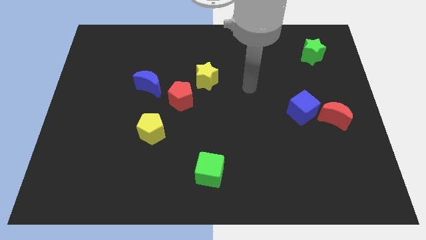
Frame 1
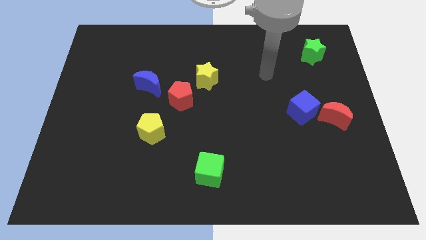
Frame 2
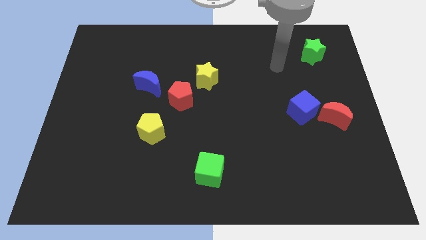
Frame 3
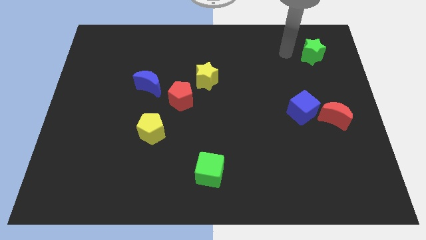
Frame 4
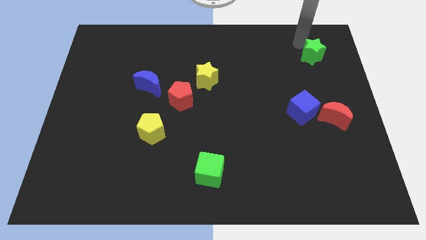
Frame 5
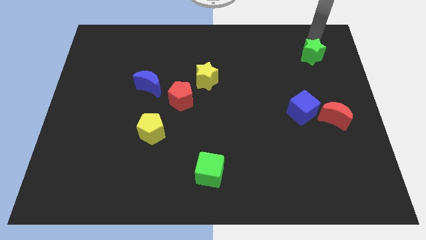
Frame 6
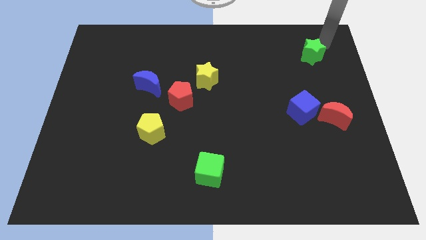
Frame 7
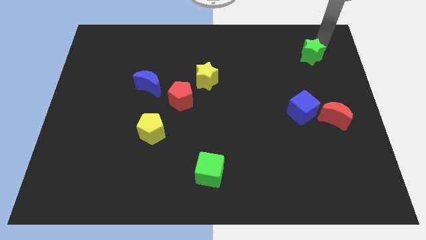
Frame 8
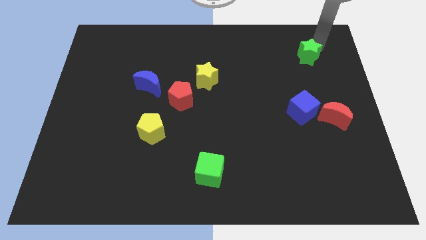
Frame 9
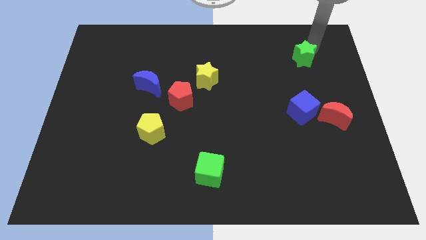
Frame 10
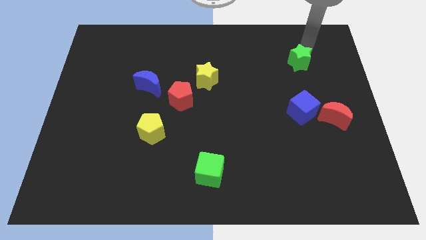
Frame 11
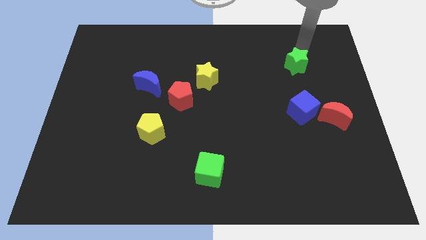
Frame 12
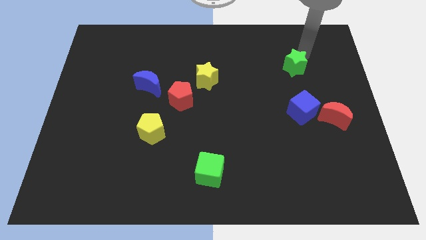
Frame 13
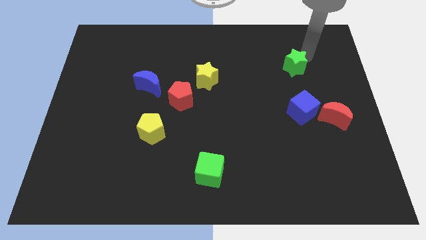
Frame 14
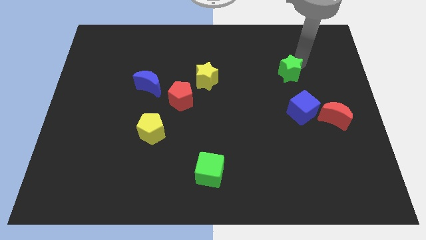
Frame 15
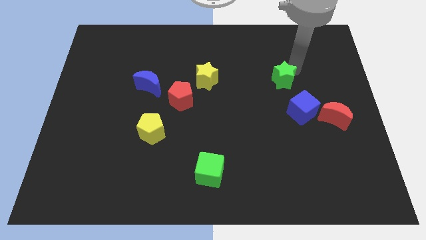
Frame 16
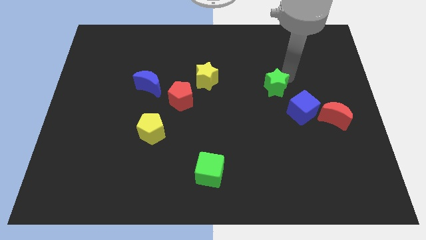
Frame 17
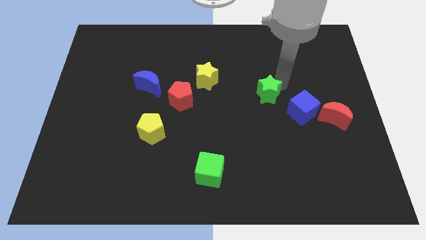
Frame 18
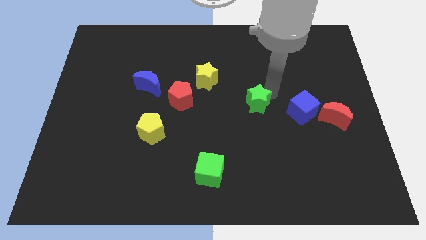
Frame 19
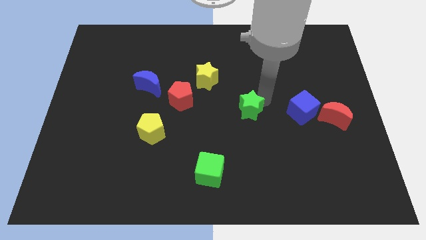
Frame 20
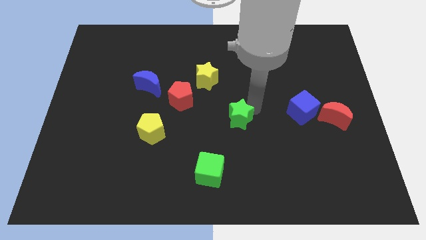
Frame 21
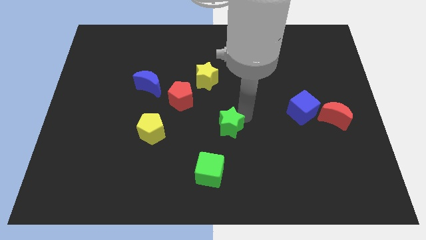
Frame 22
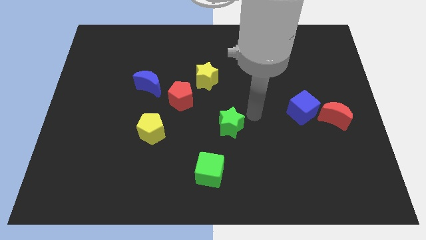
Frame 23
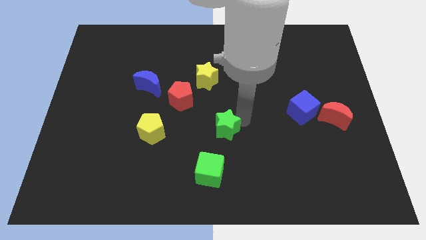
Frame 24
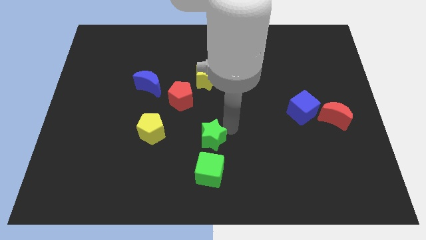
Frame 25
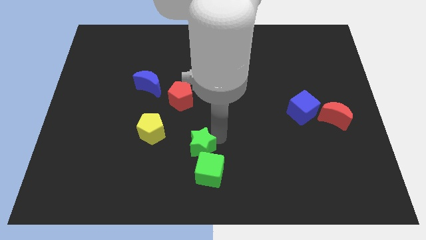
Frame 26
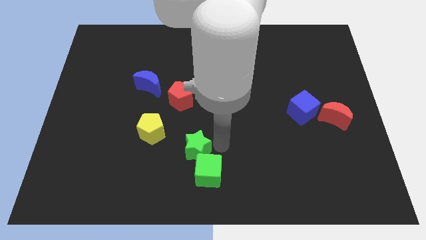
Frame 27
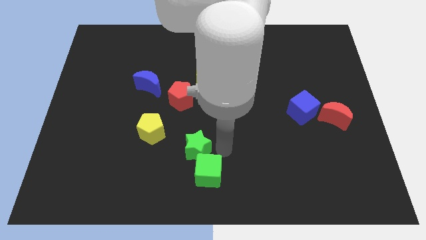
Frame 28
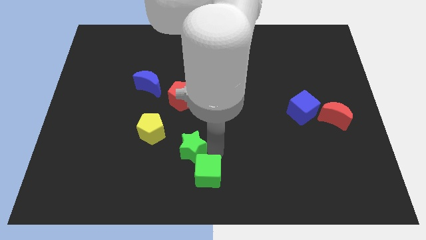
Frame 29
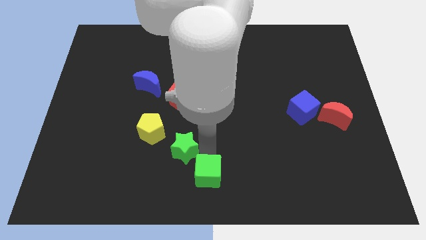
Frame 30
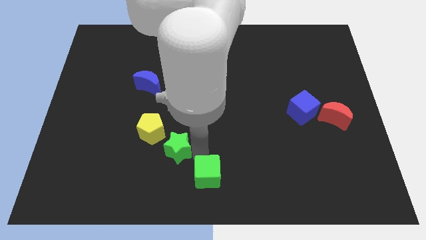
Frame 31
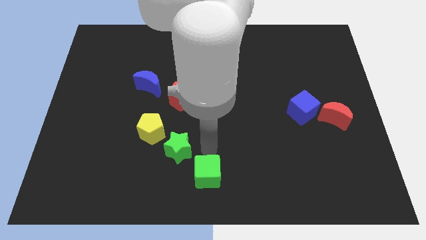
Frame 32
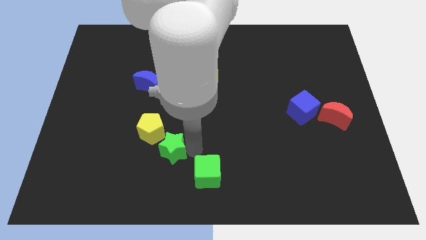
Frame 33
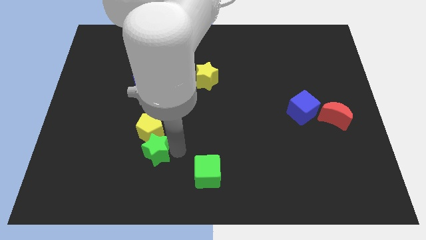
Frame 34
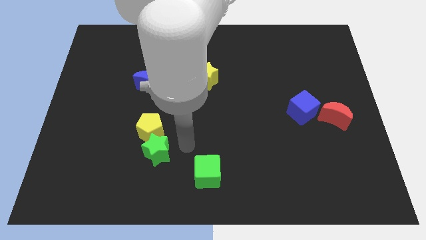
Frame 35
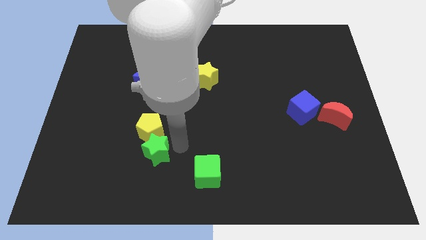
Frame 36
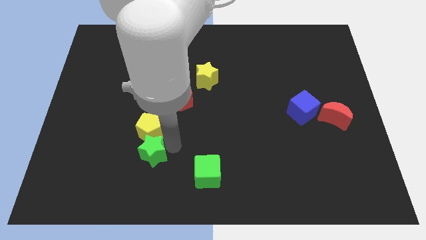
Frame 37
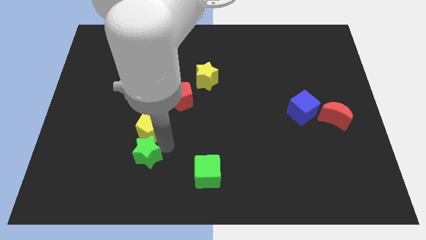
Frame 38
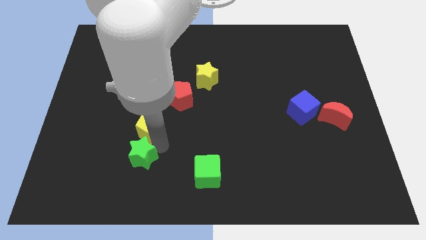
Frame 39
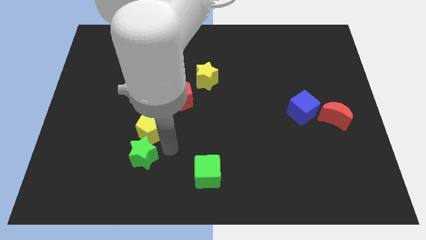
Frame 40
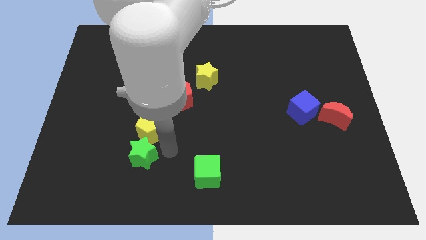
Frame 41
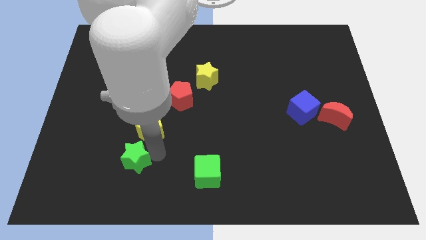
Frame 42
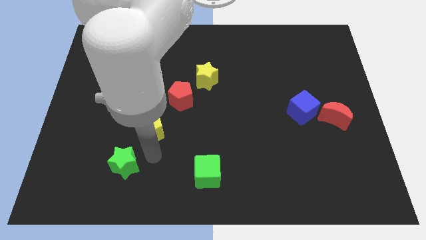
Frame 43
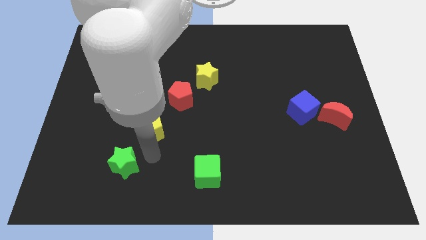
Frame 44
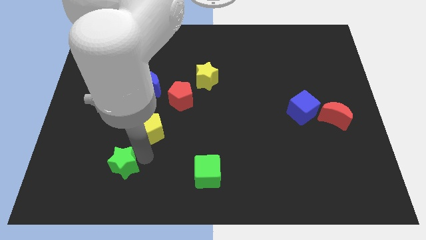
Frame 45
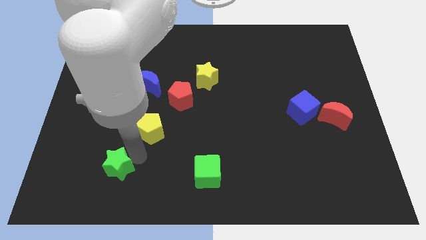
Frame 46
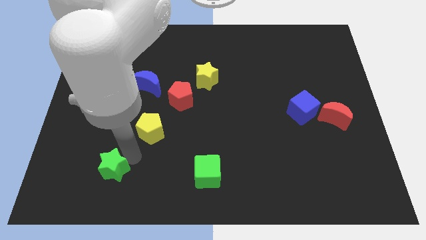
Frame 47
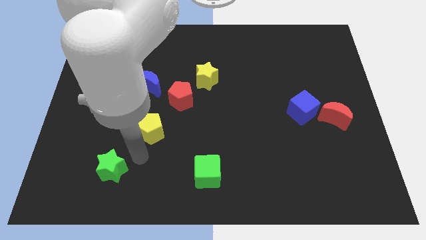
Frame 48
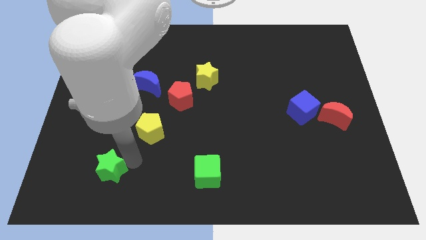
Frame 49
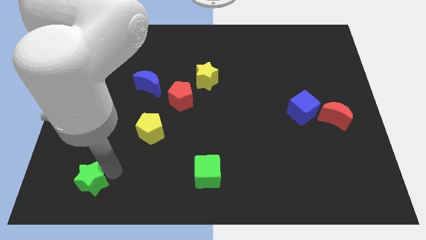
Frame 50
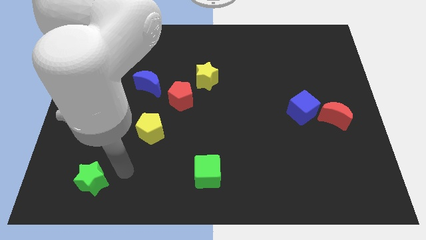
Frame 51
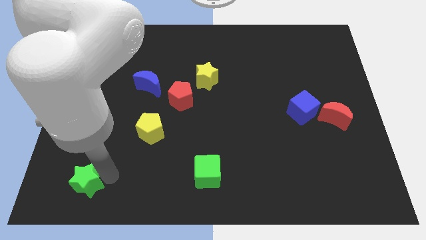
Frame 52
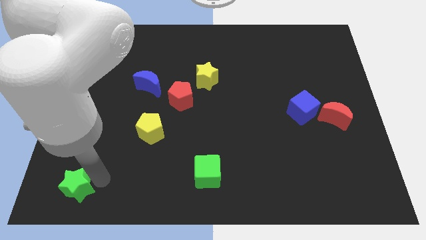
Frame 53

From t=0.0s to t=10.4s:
put the green star to the bottom left of the board

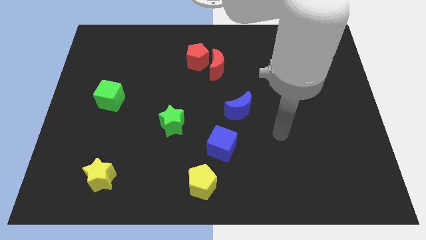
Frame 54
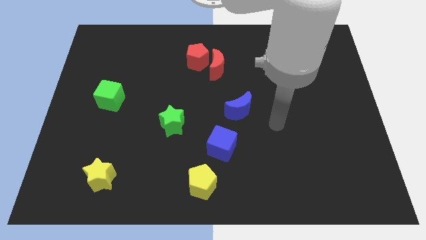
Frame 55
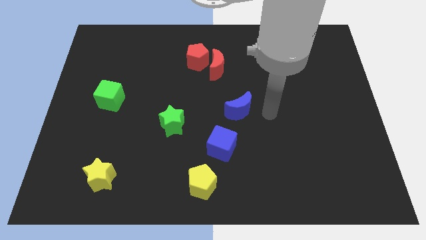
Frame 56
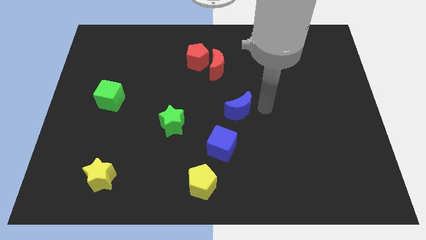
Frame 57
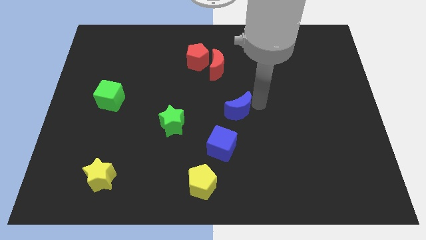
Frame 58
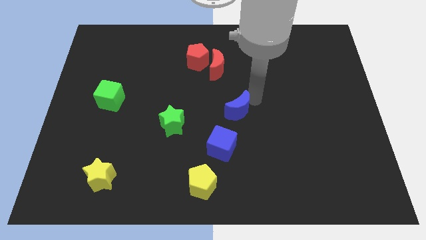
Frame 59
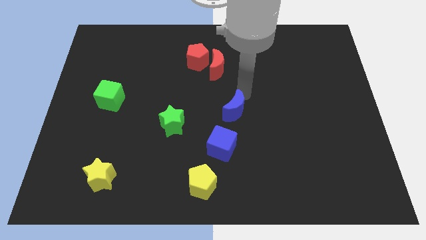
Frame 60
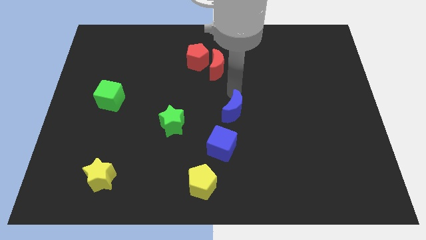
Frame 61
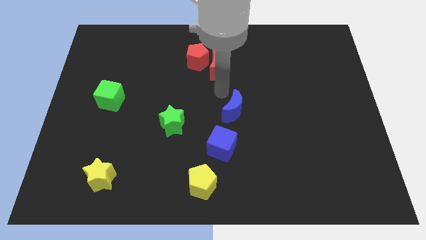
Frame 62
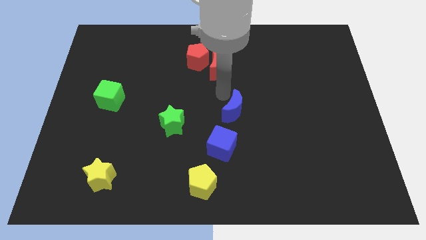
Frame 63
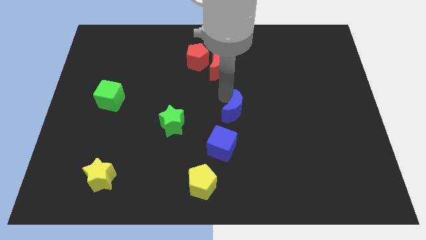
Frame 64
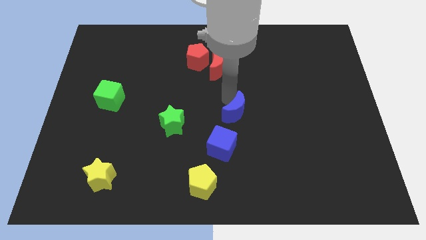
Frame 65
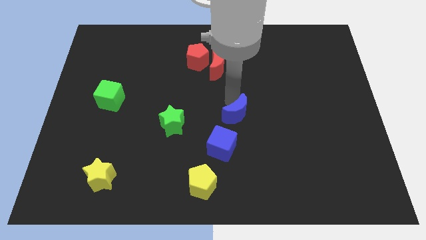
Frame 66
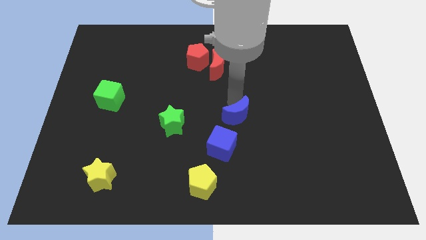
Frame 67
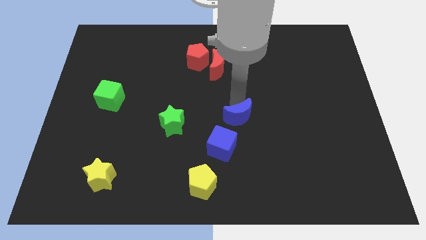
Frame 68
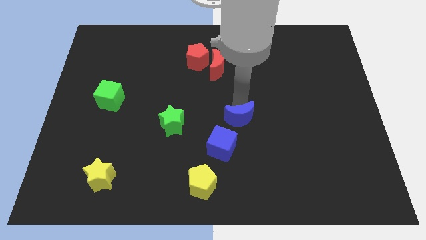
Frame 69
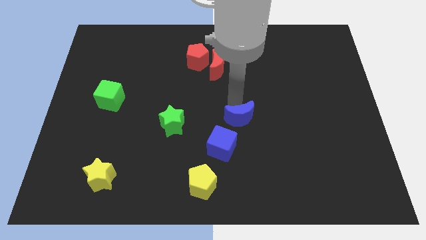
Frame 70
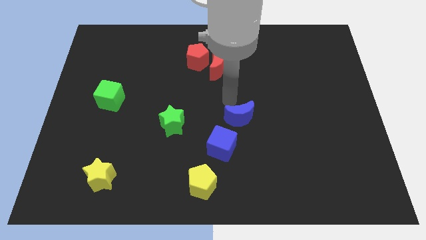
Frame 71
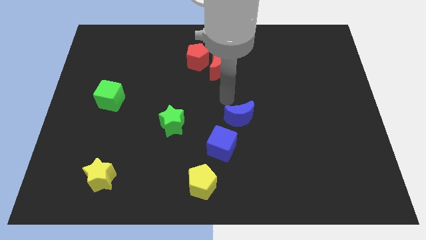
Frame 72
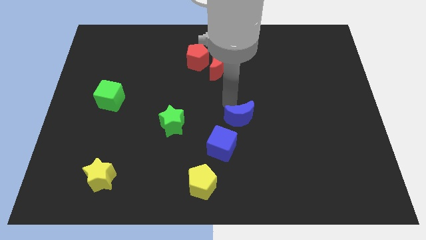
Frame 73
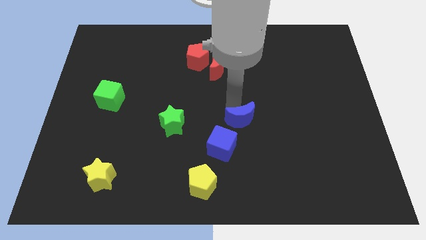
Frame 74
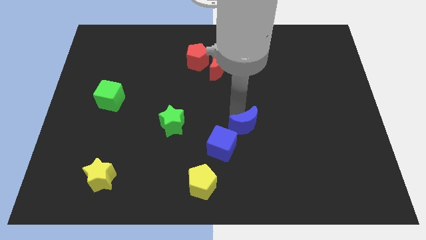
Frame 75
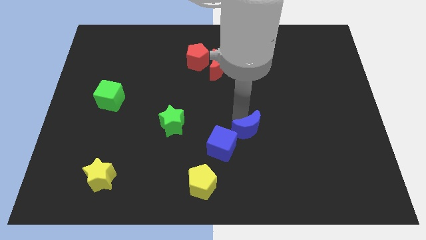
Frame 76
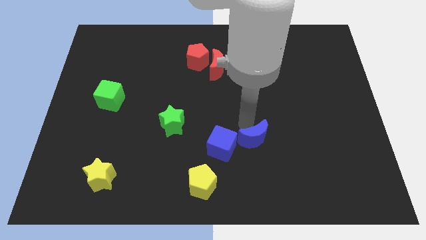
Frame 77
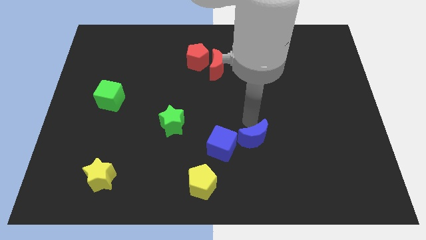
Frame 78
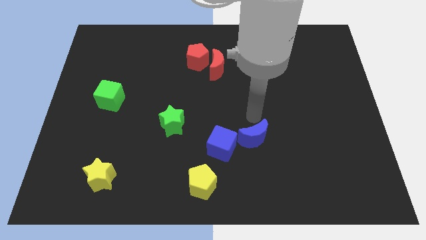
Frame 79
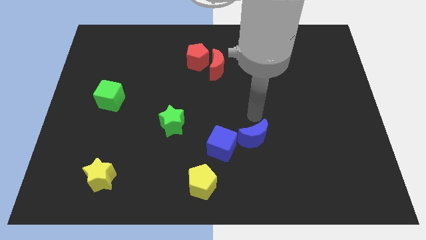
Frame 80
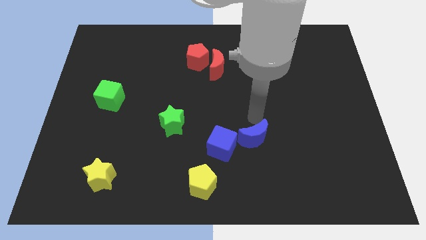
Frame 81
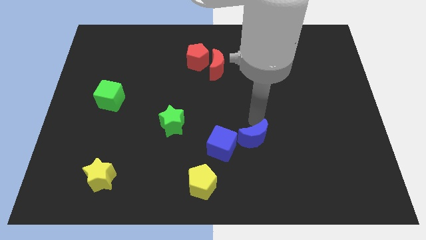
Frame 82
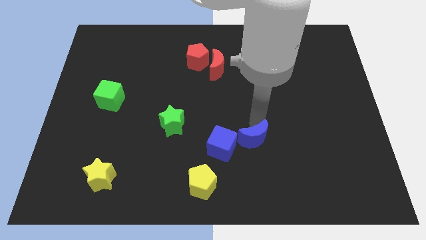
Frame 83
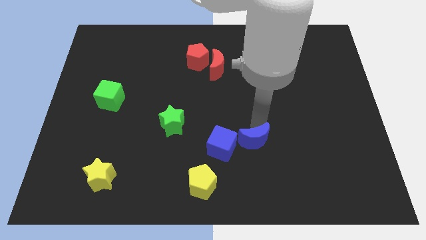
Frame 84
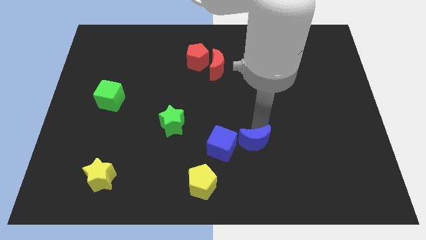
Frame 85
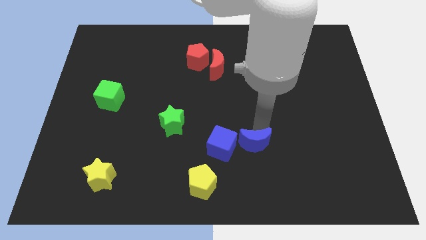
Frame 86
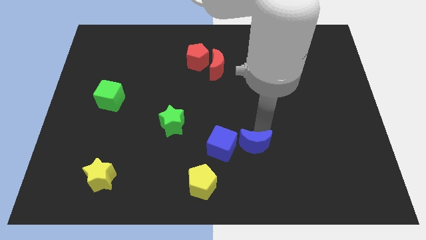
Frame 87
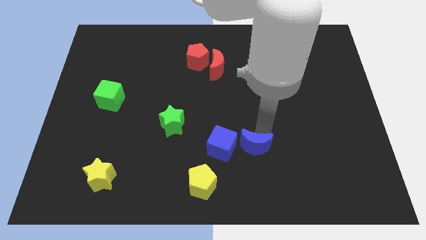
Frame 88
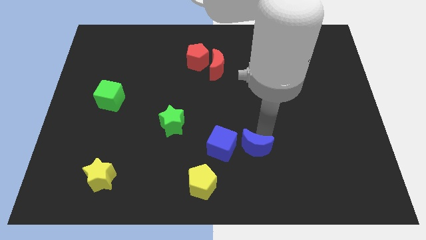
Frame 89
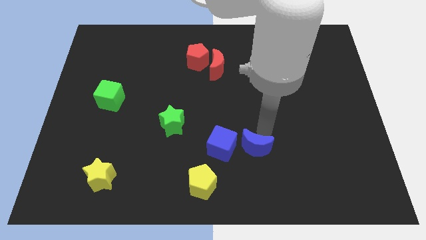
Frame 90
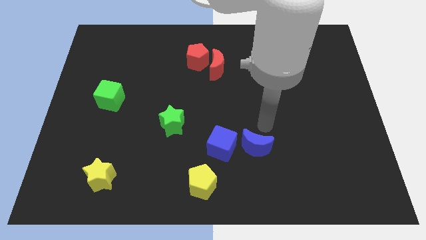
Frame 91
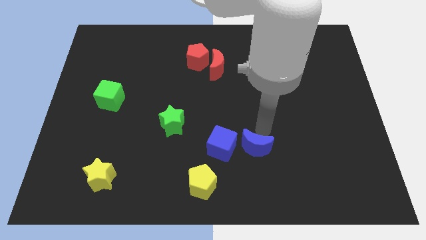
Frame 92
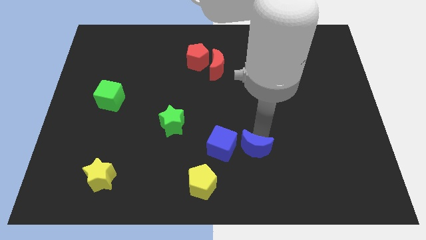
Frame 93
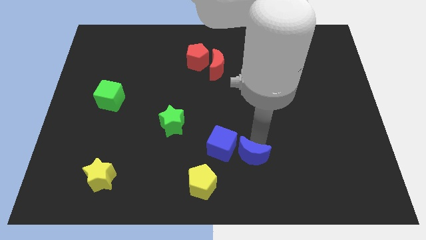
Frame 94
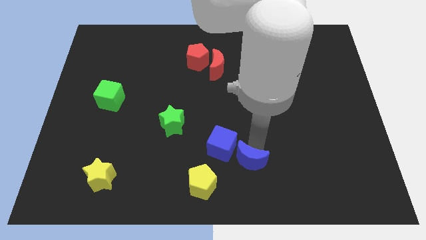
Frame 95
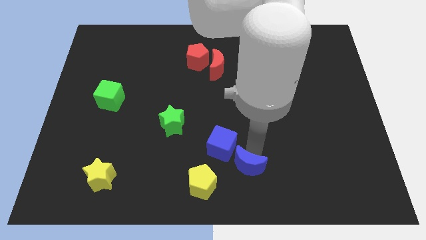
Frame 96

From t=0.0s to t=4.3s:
move the blue moon to the bottom side
